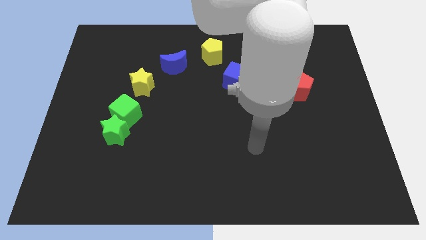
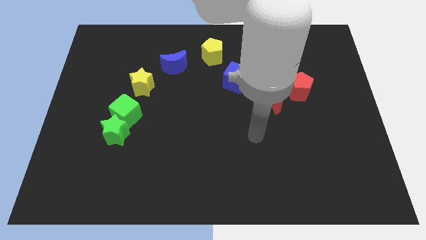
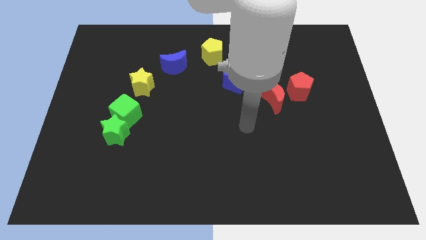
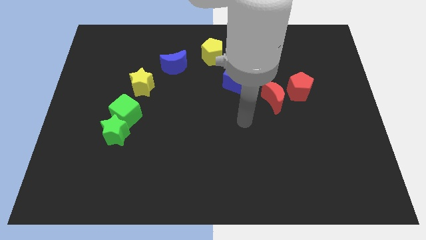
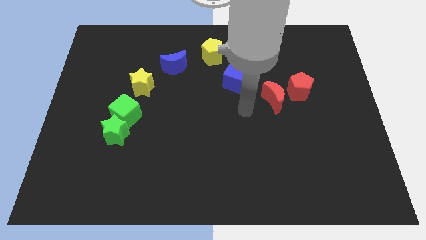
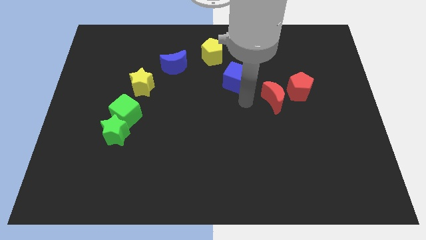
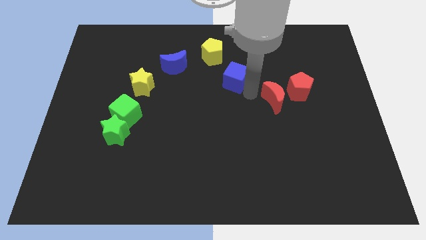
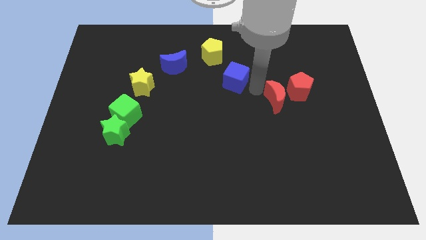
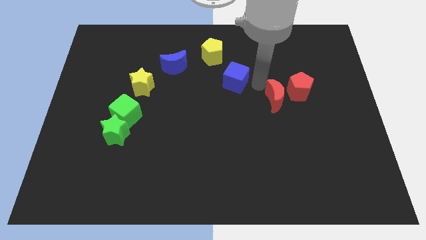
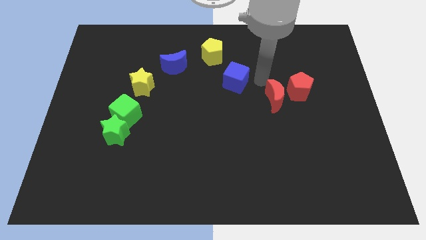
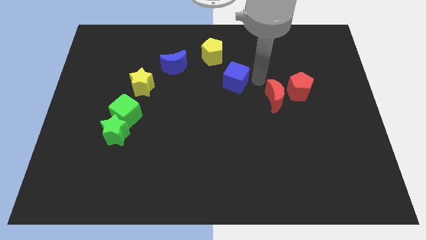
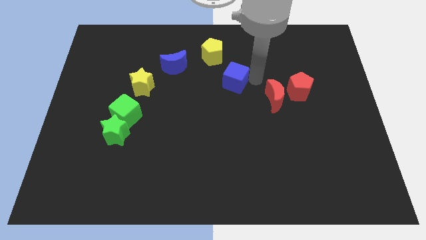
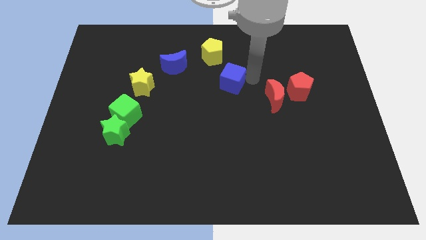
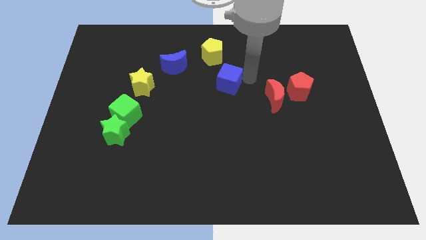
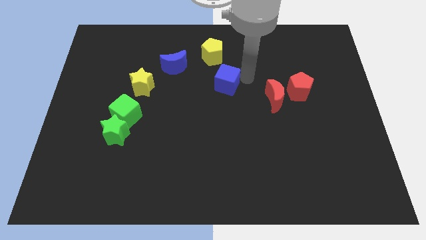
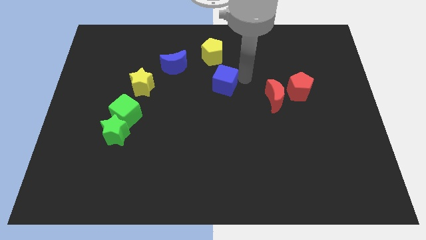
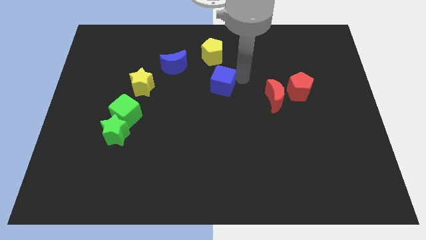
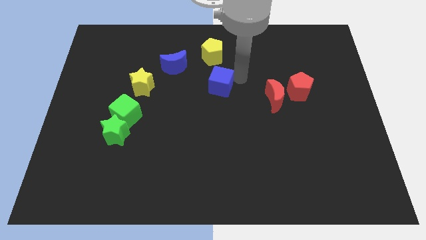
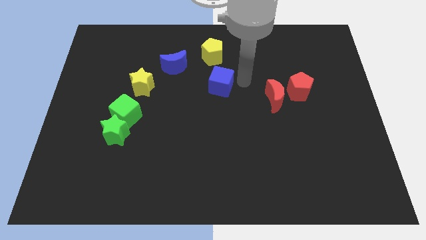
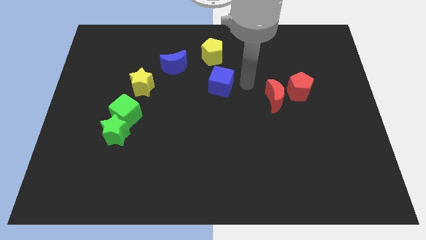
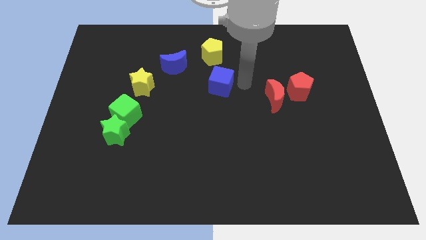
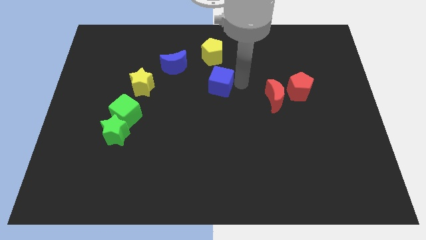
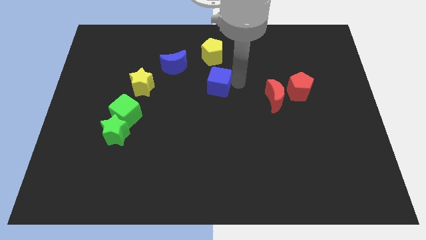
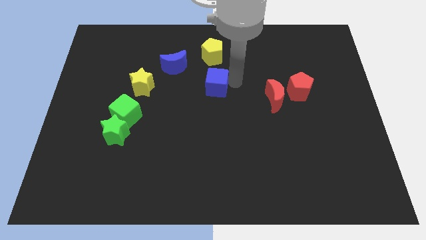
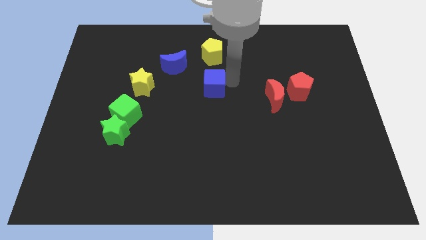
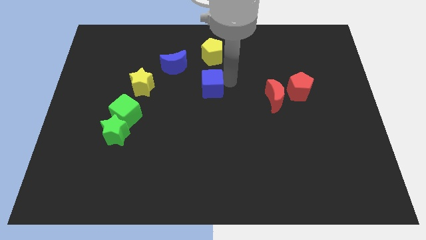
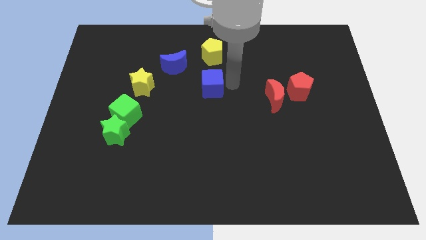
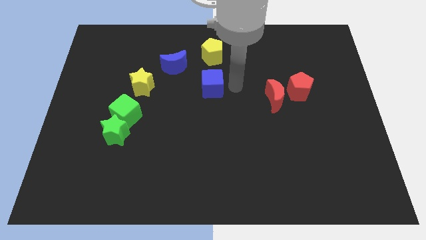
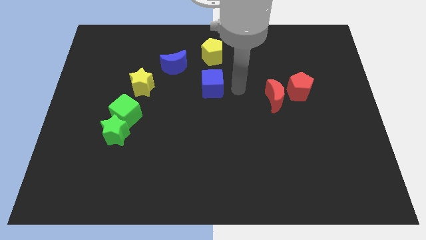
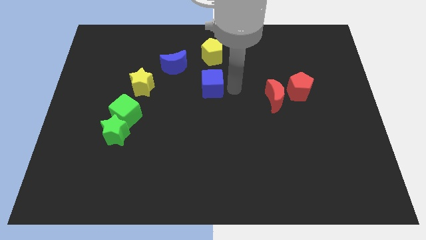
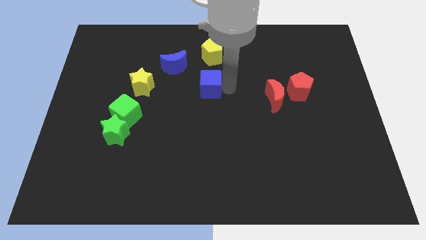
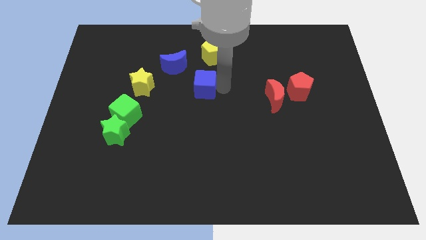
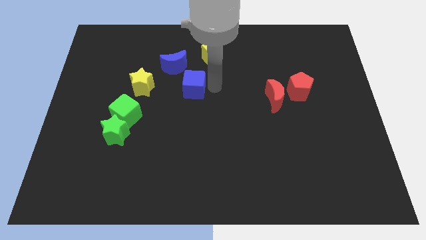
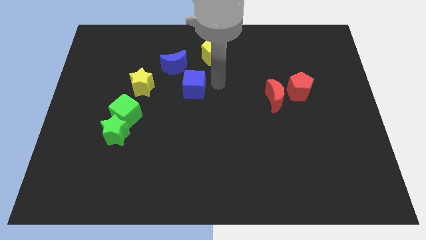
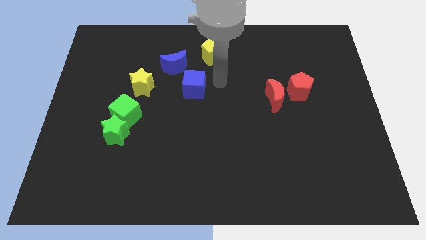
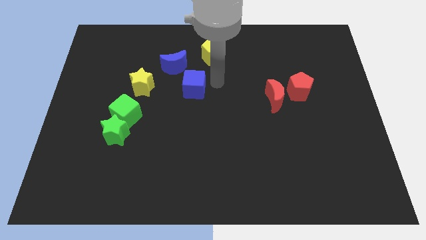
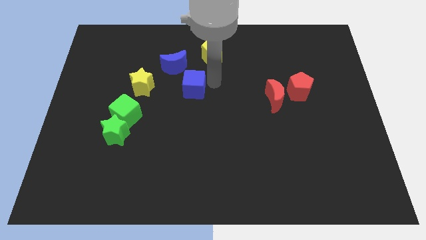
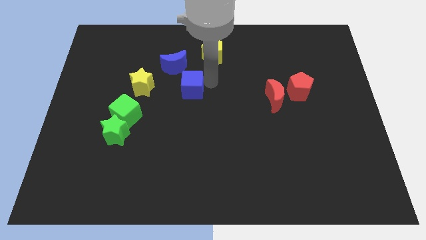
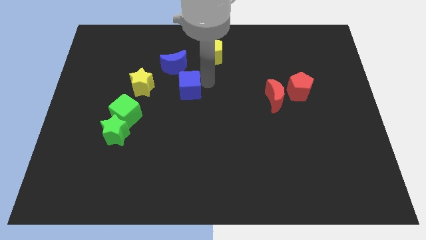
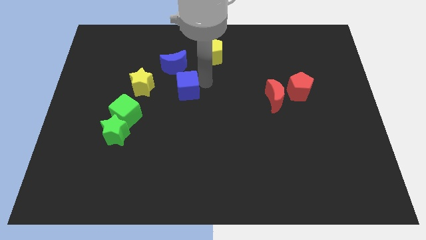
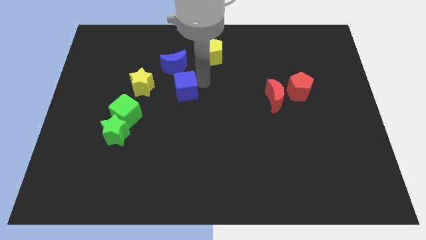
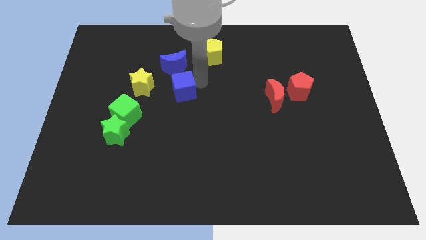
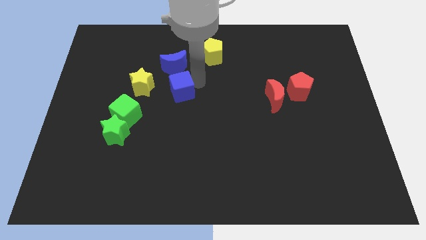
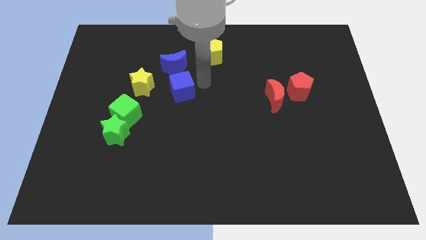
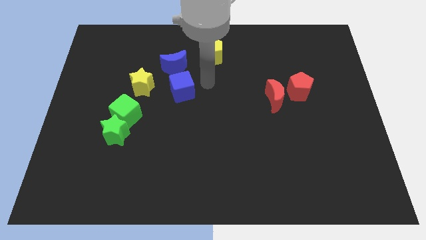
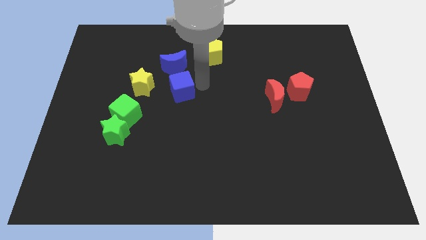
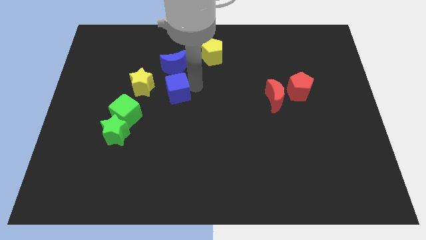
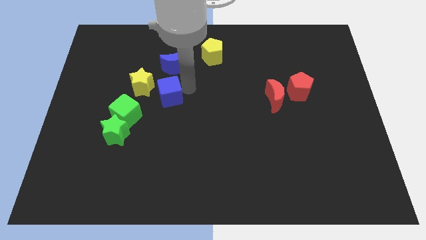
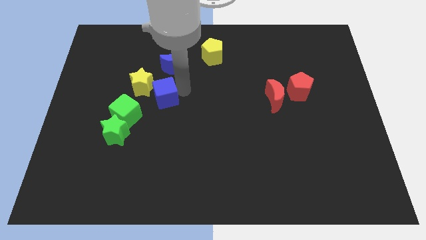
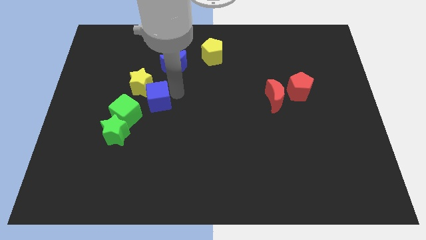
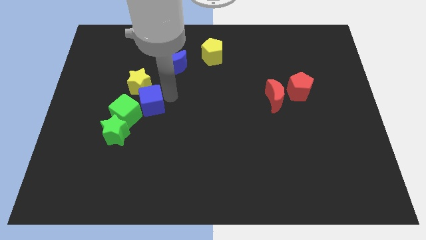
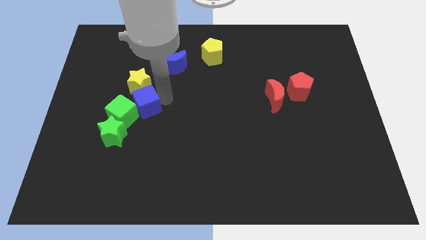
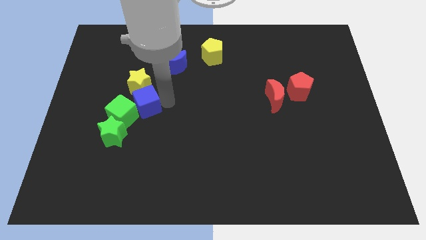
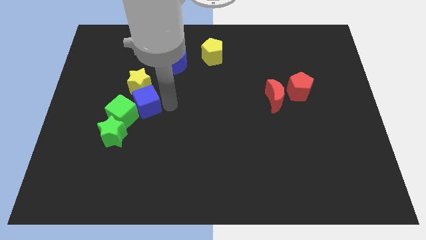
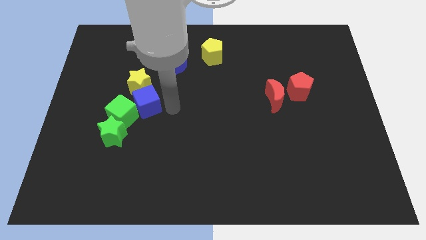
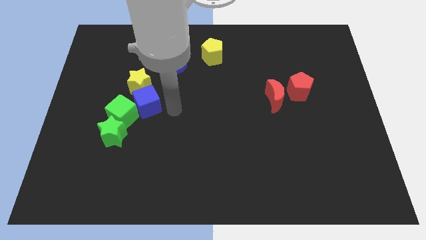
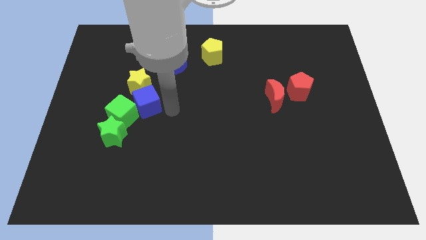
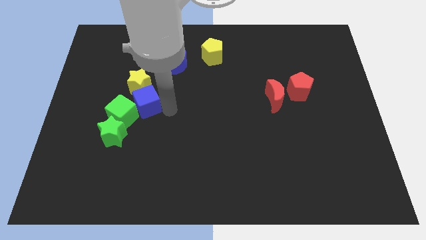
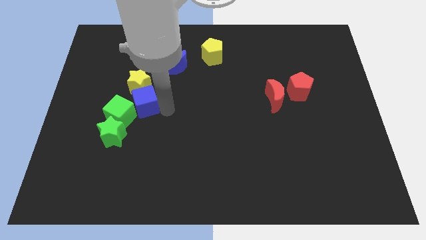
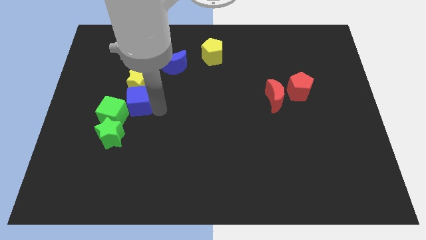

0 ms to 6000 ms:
move the blue cube left

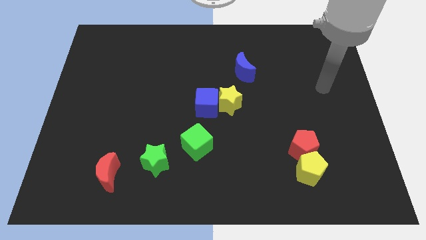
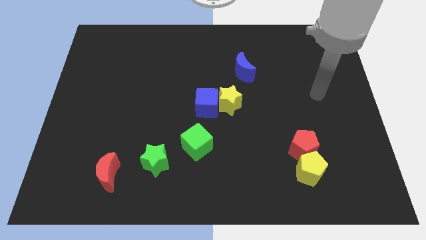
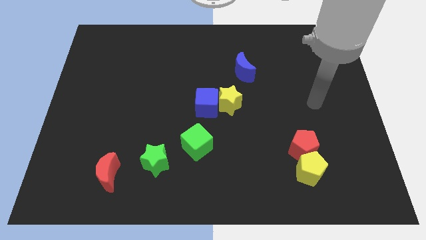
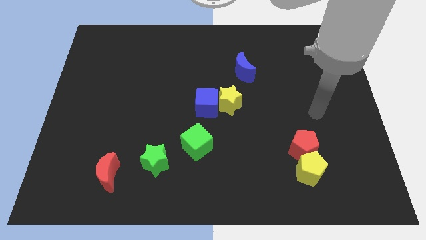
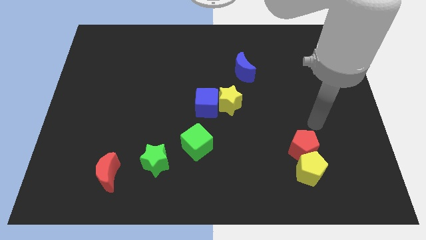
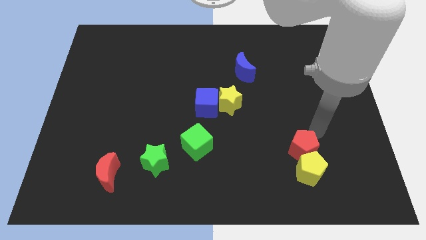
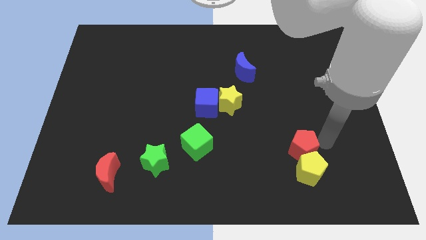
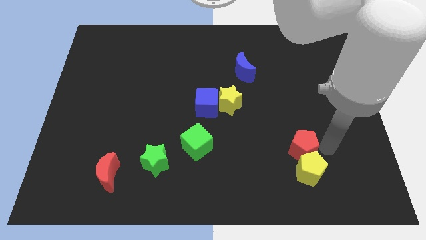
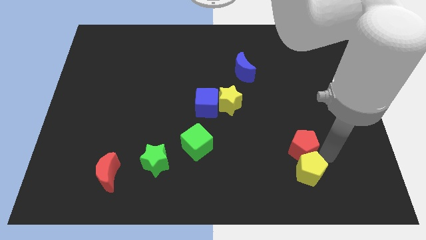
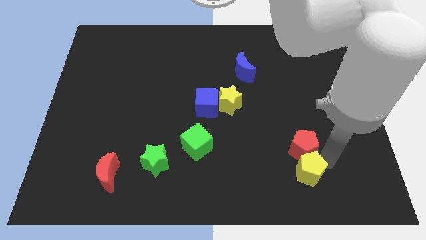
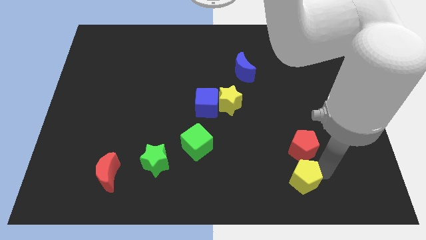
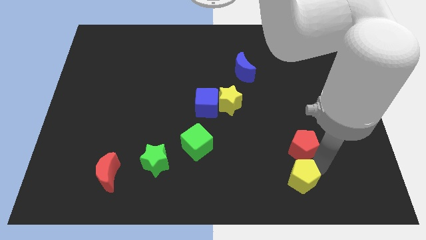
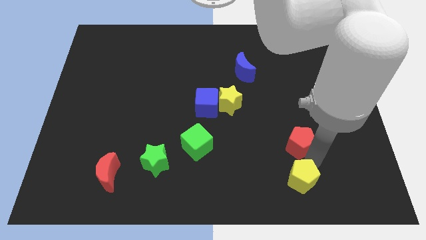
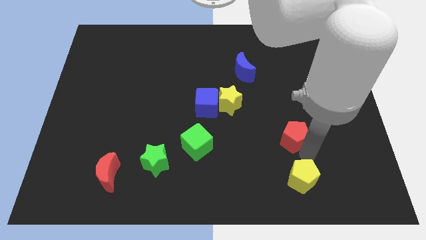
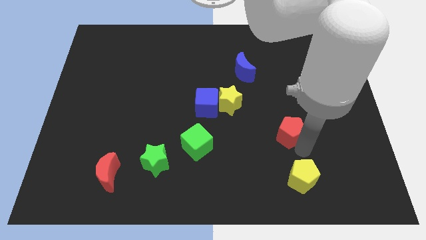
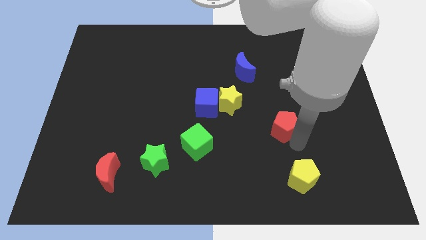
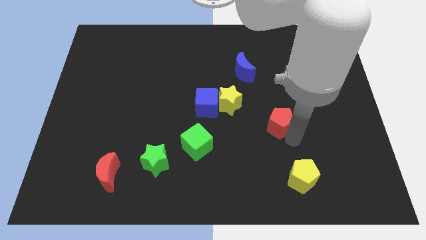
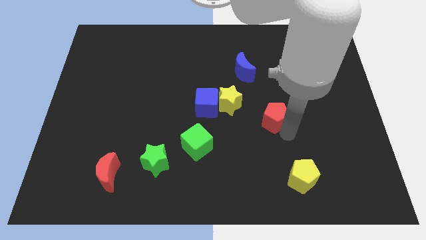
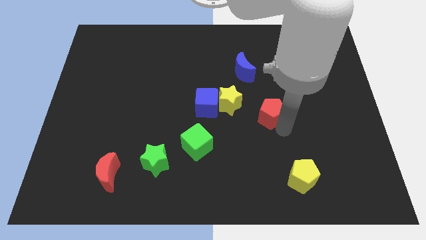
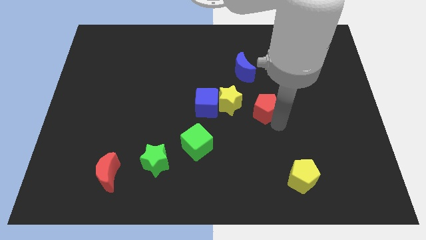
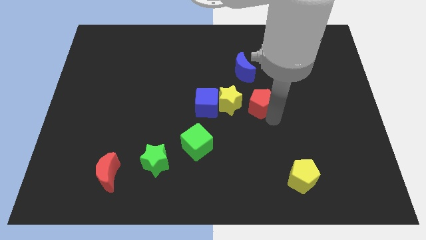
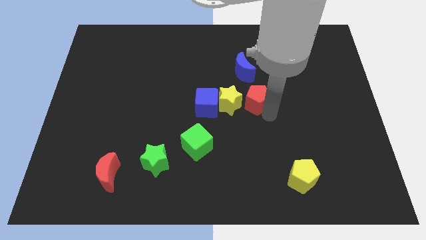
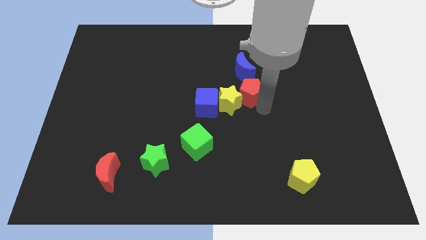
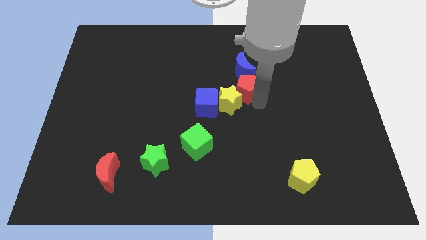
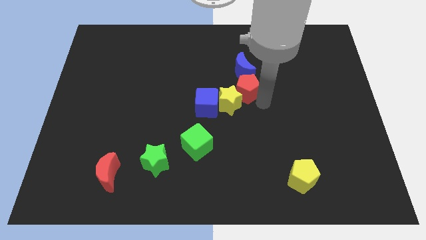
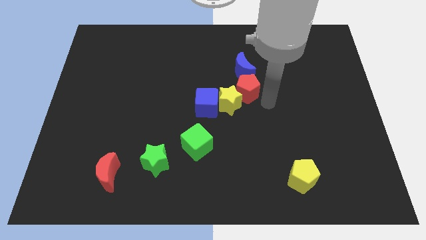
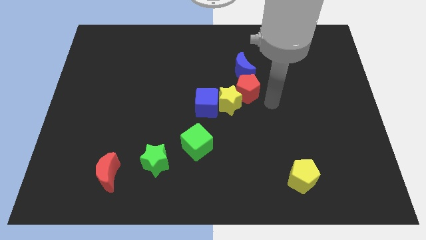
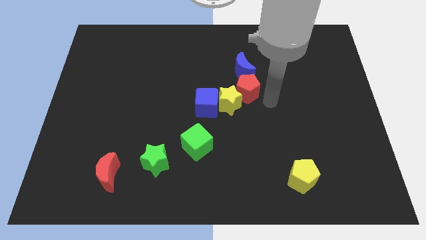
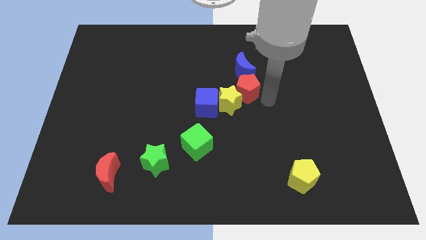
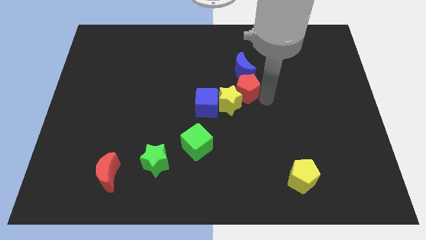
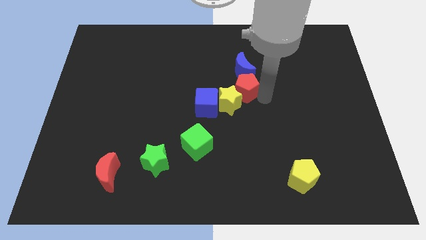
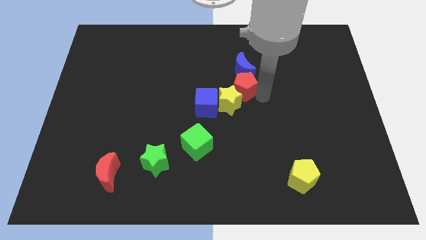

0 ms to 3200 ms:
move the red pentagon upwards and to the left diagonally
